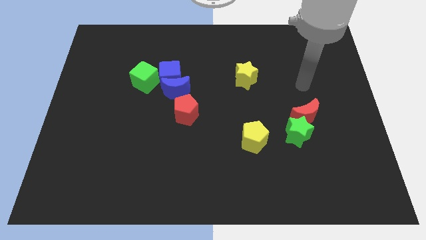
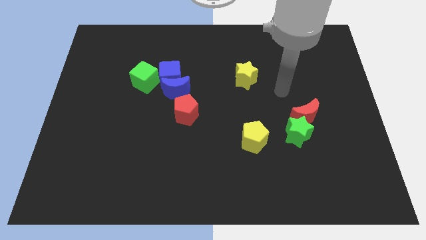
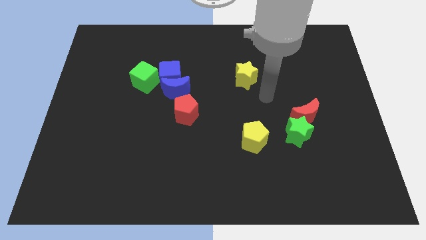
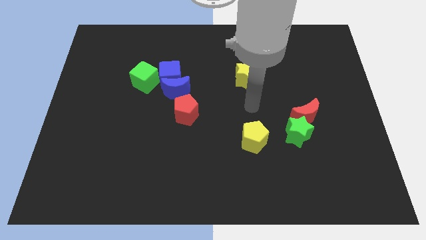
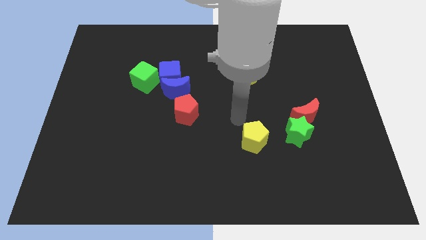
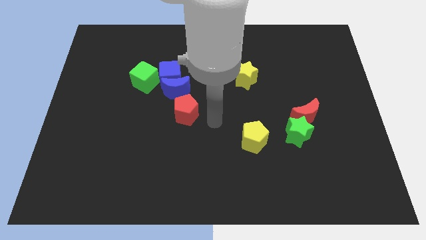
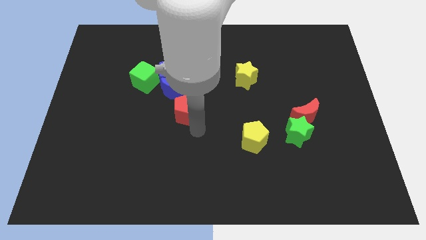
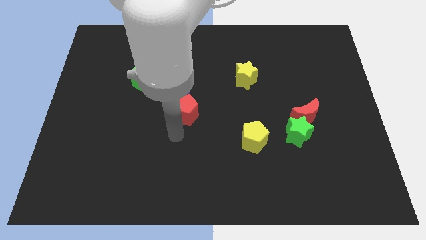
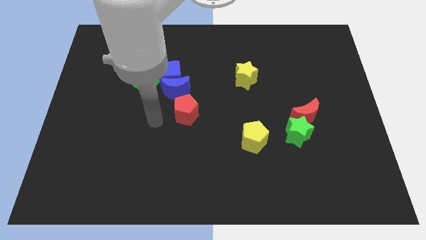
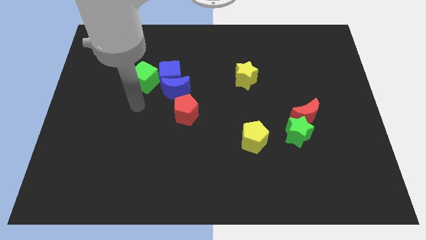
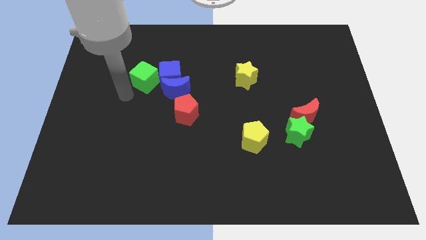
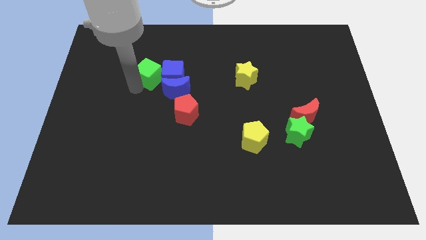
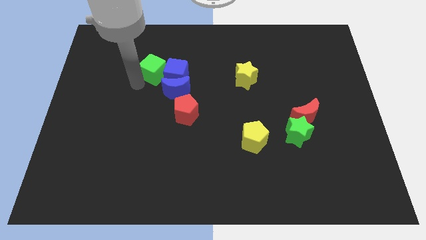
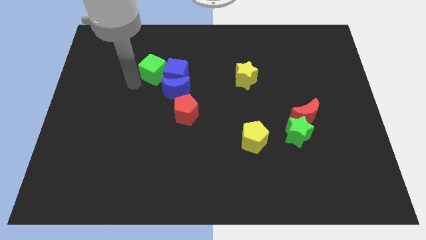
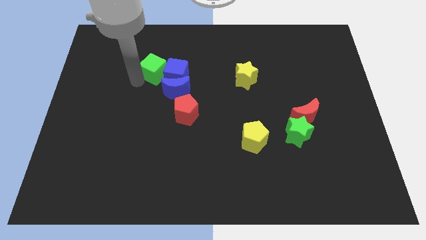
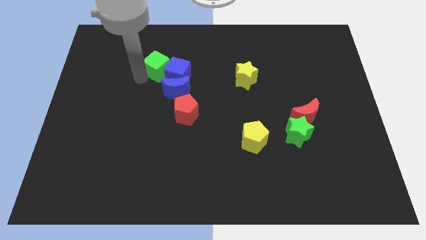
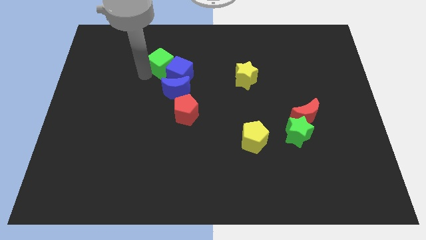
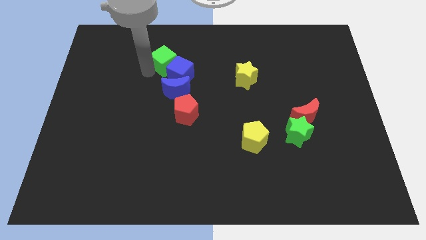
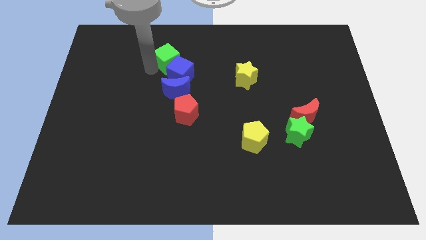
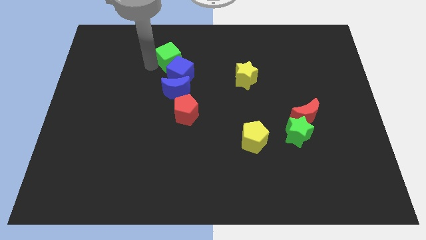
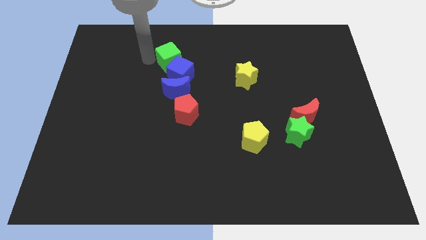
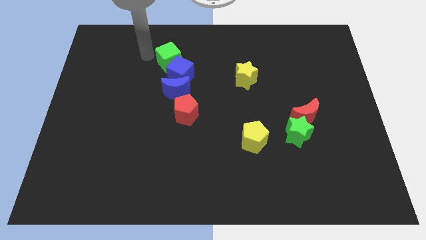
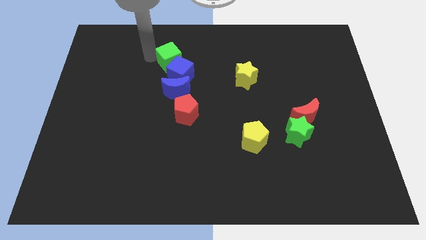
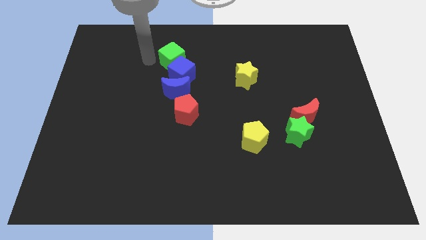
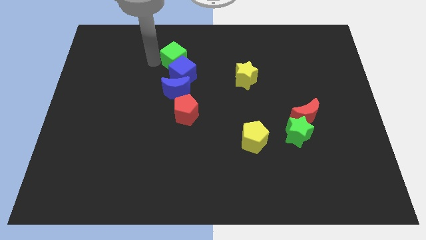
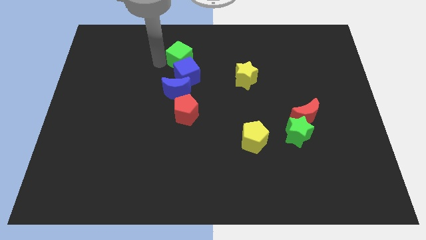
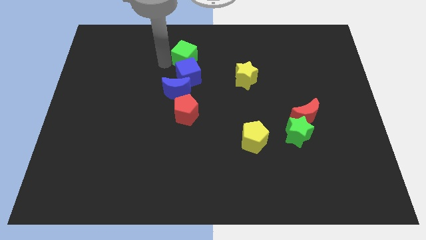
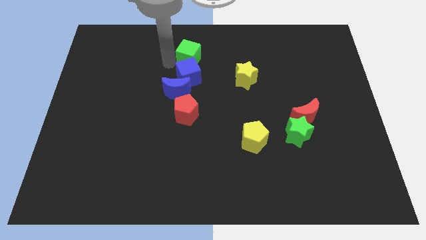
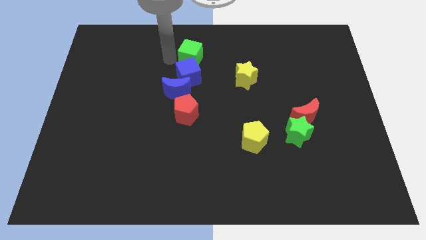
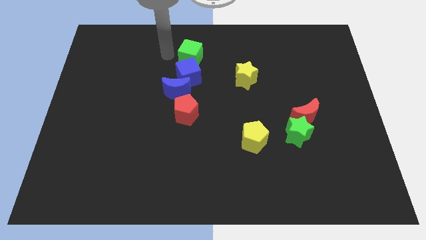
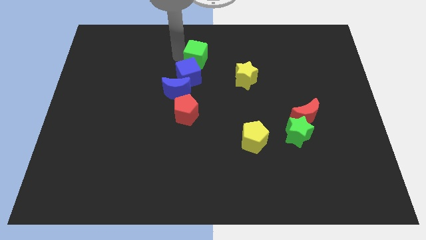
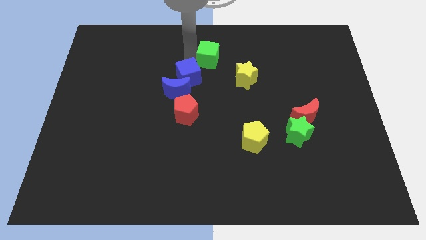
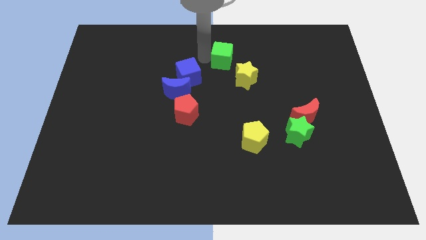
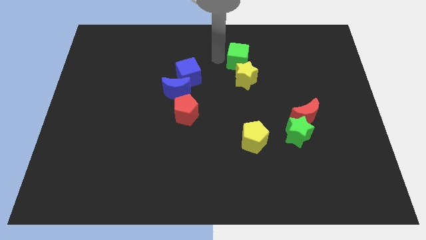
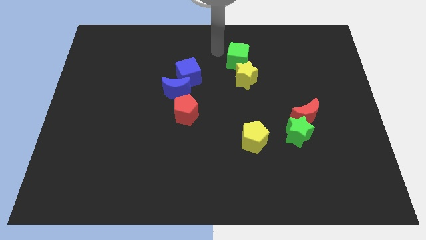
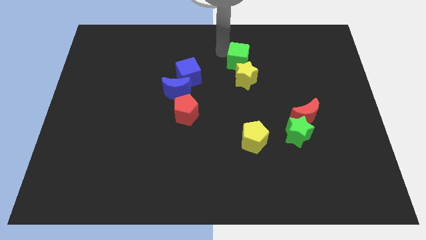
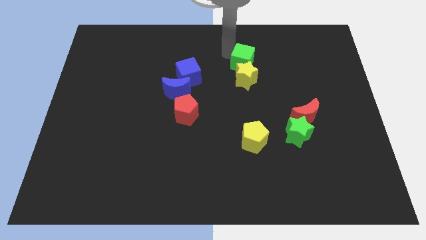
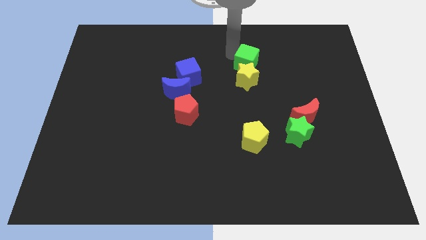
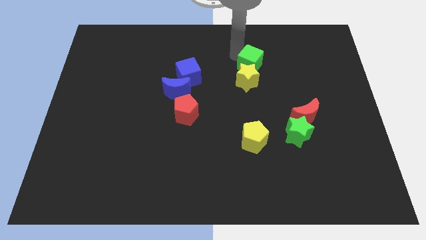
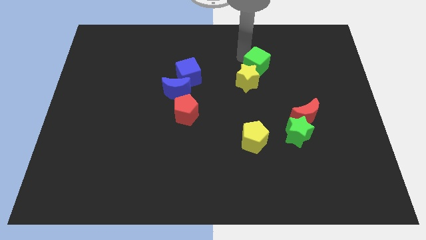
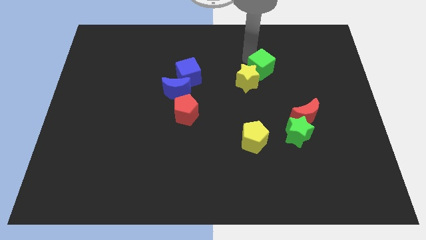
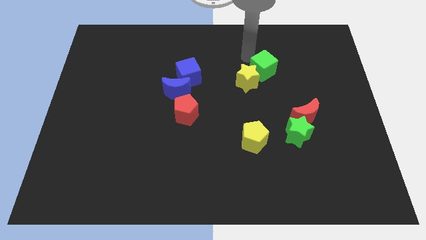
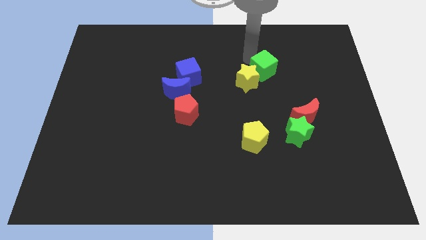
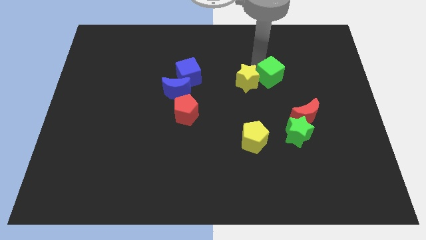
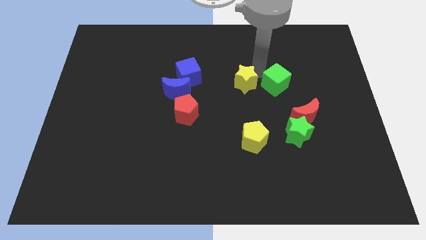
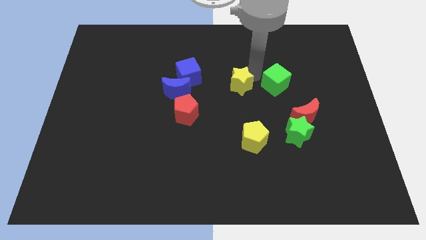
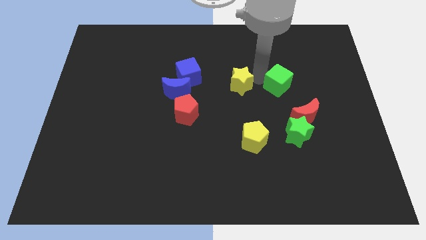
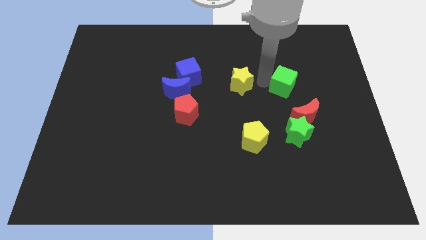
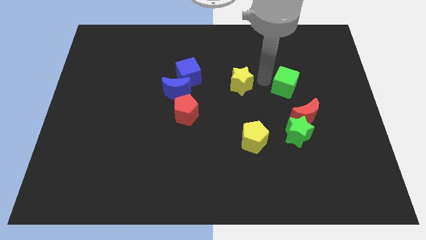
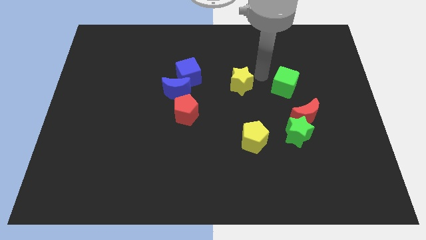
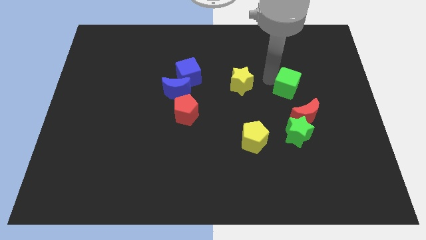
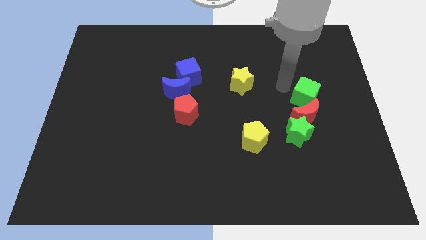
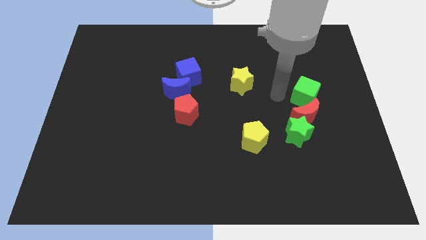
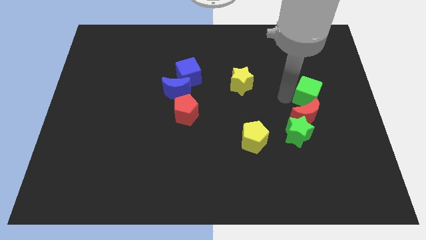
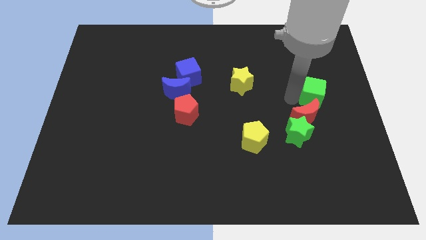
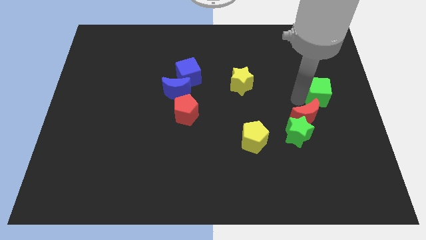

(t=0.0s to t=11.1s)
move the green cube to the right side
